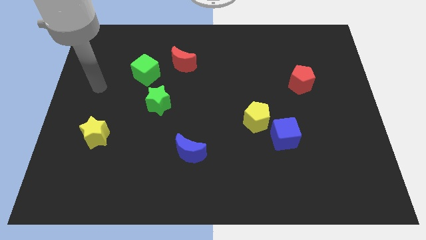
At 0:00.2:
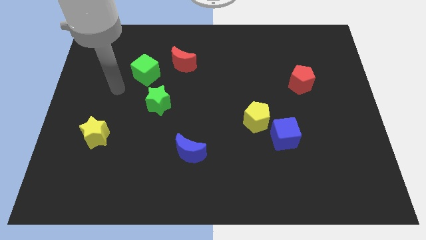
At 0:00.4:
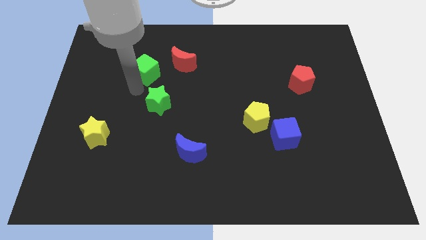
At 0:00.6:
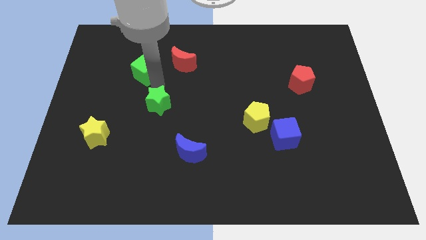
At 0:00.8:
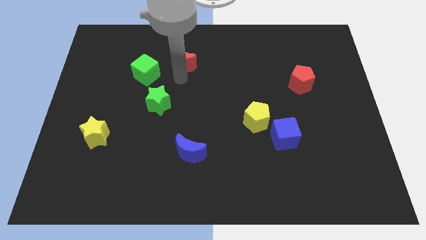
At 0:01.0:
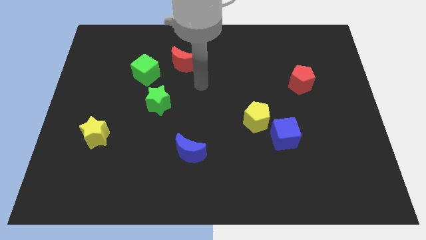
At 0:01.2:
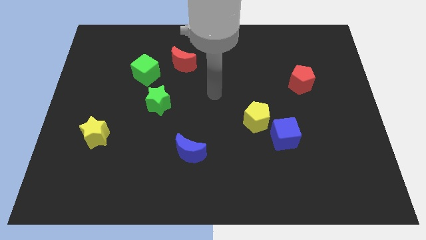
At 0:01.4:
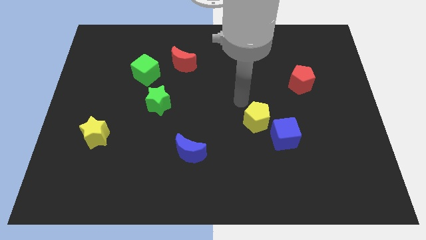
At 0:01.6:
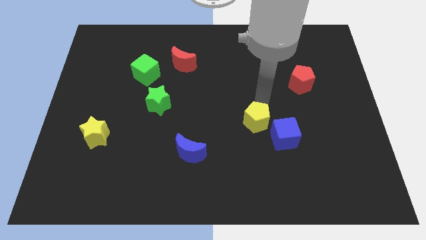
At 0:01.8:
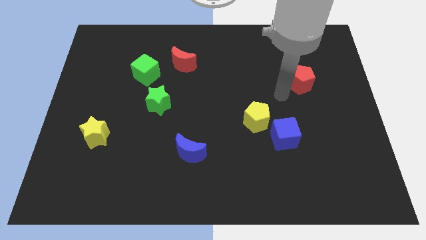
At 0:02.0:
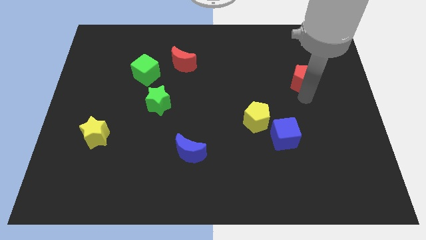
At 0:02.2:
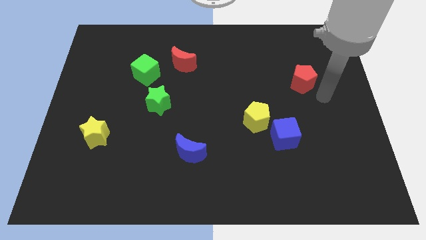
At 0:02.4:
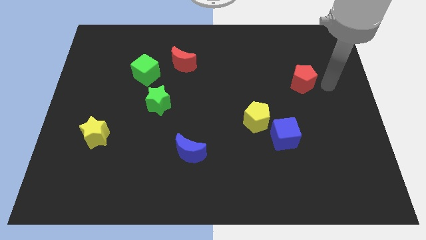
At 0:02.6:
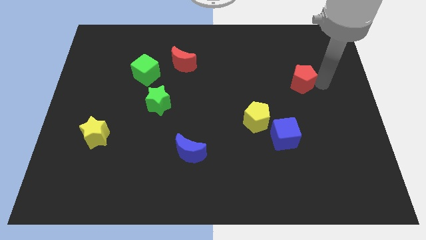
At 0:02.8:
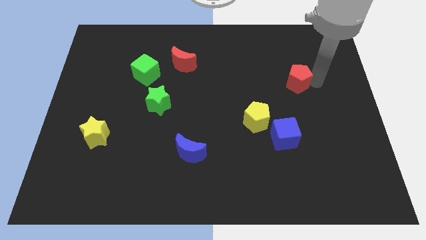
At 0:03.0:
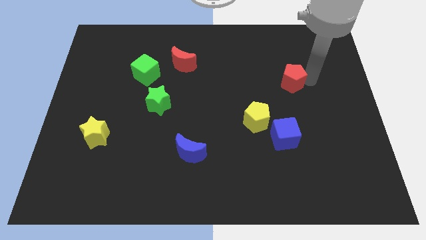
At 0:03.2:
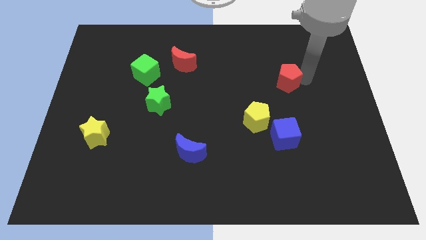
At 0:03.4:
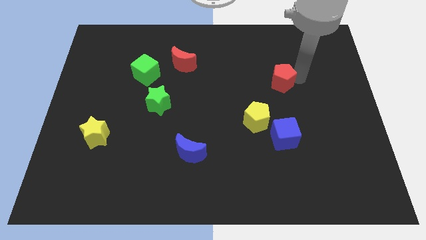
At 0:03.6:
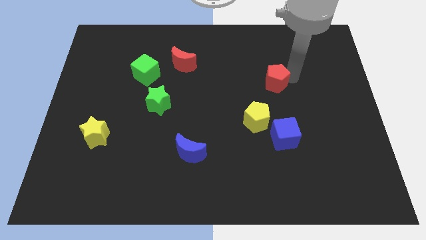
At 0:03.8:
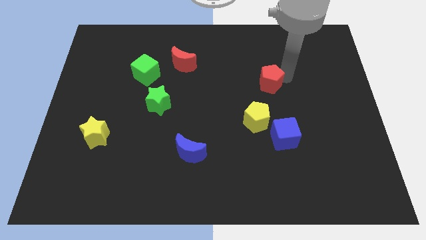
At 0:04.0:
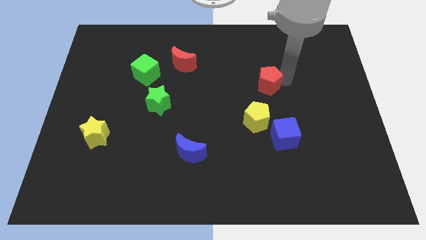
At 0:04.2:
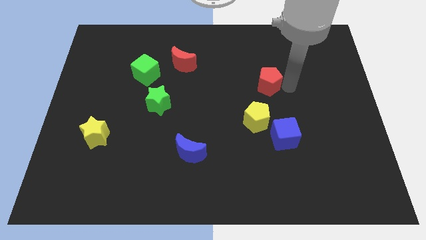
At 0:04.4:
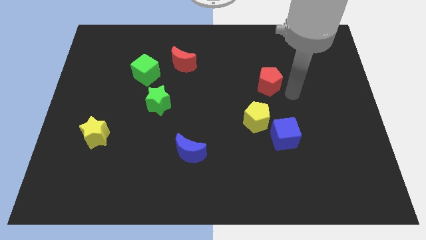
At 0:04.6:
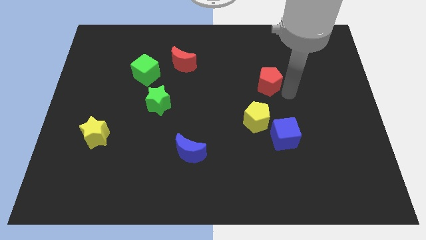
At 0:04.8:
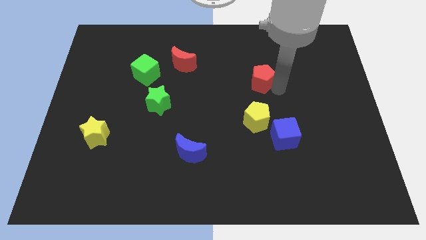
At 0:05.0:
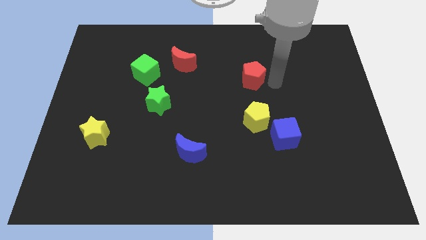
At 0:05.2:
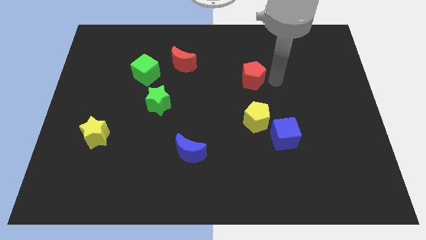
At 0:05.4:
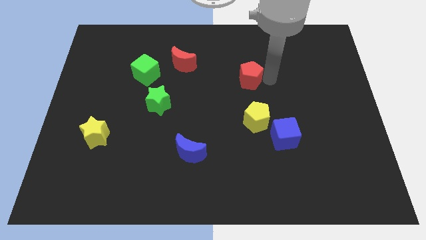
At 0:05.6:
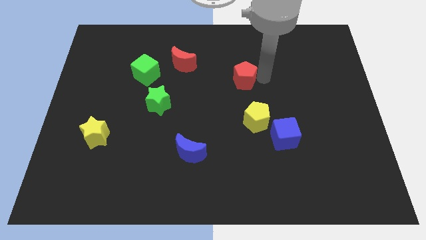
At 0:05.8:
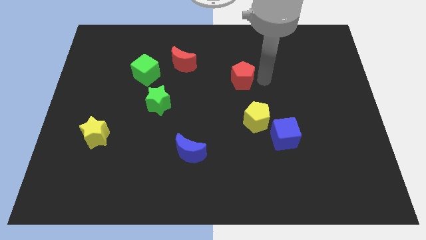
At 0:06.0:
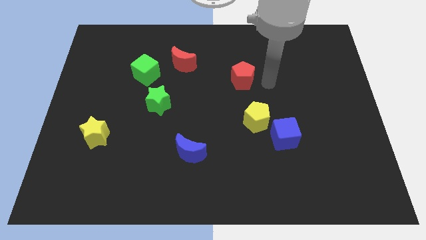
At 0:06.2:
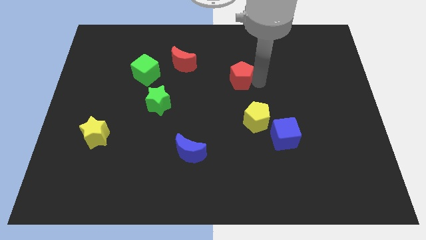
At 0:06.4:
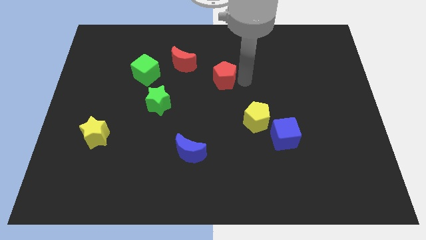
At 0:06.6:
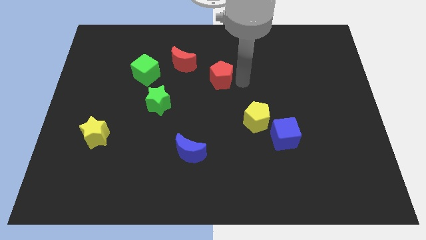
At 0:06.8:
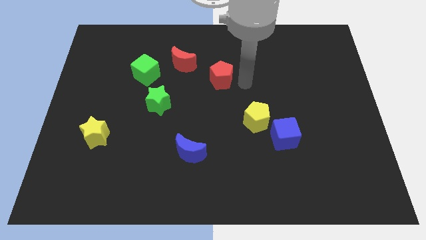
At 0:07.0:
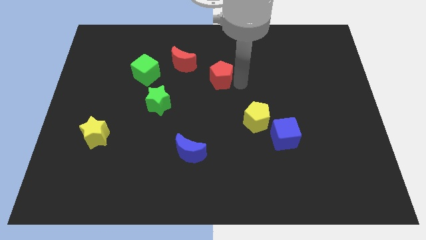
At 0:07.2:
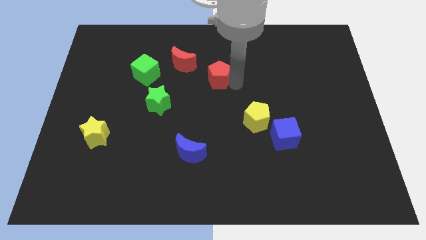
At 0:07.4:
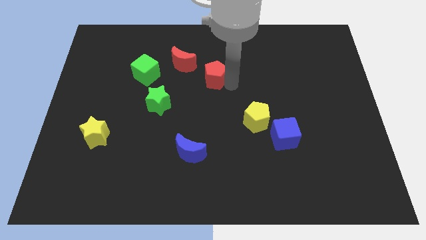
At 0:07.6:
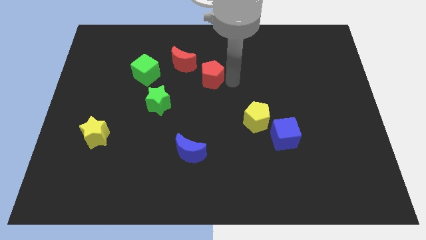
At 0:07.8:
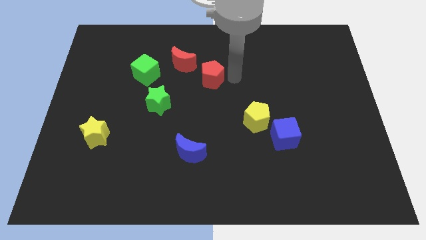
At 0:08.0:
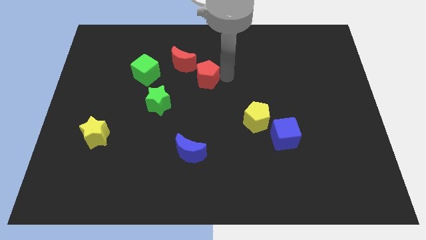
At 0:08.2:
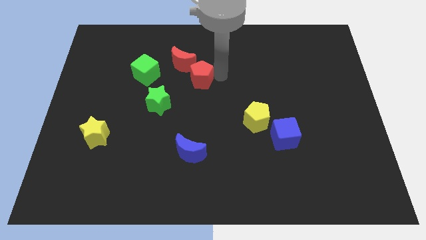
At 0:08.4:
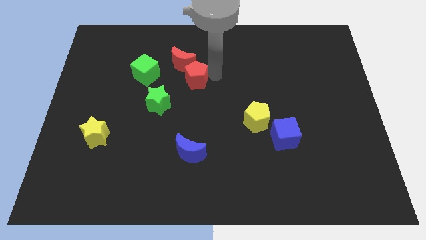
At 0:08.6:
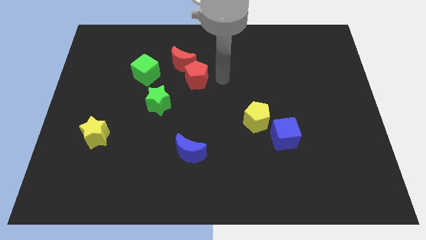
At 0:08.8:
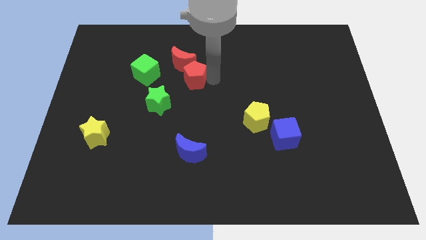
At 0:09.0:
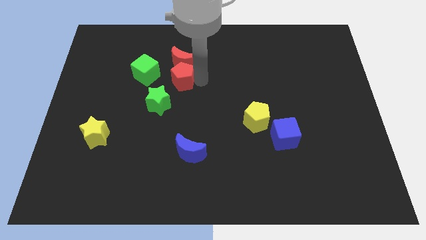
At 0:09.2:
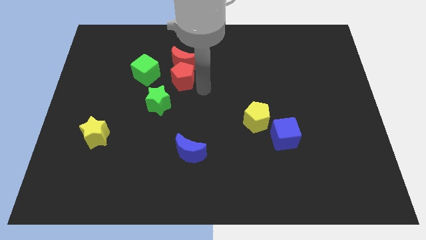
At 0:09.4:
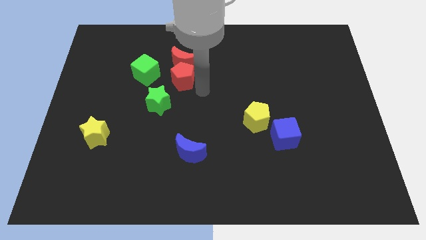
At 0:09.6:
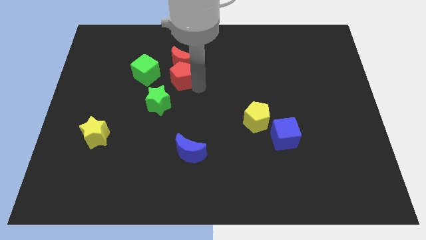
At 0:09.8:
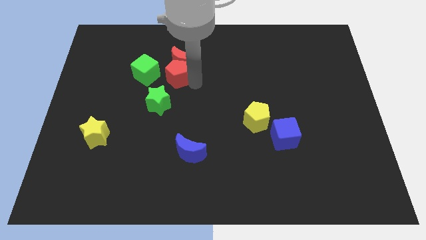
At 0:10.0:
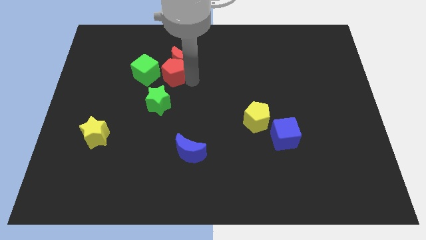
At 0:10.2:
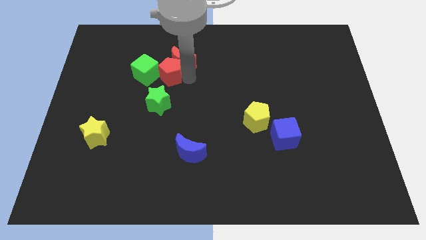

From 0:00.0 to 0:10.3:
slide the red pentagon just left of the red moon

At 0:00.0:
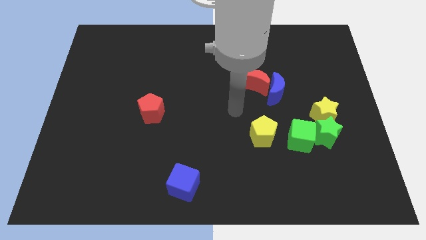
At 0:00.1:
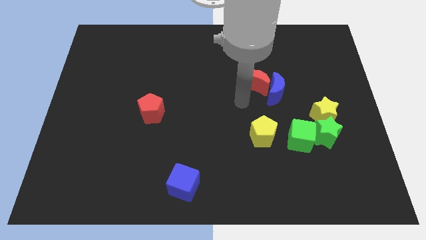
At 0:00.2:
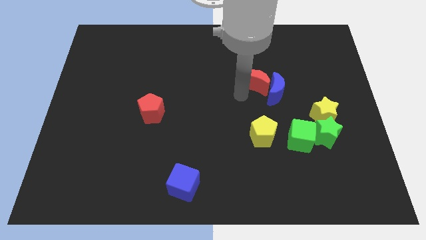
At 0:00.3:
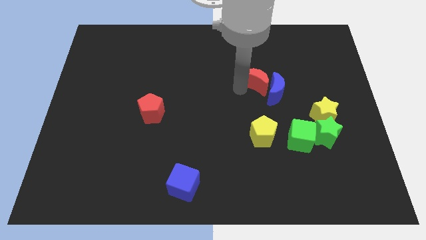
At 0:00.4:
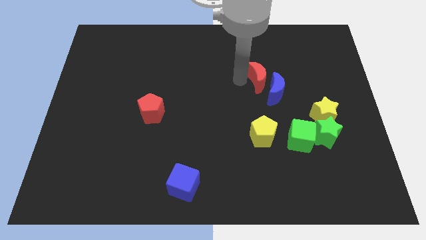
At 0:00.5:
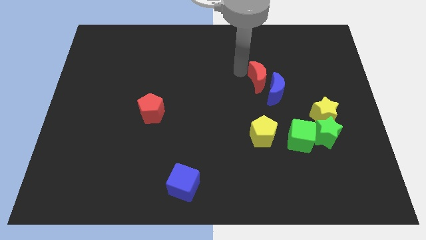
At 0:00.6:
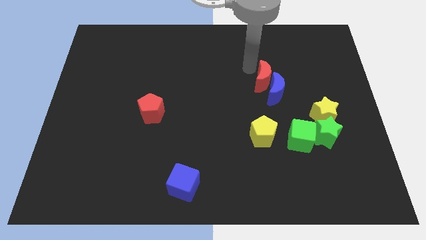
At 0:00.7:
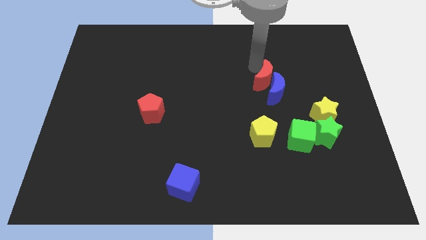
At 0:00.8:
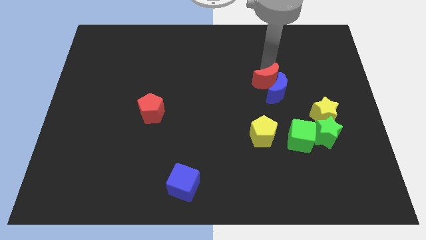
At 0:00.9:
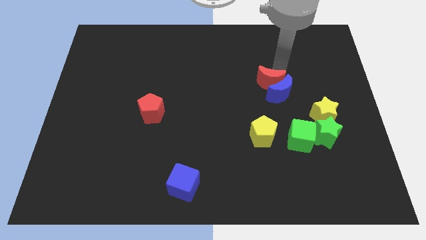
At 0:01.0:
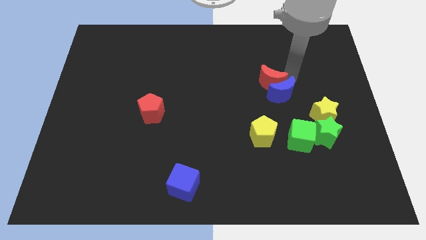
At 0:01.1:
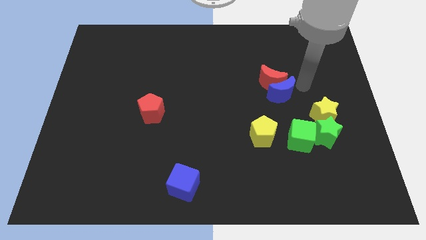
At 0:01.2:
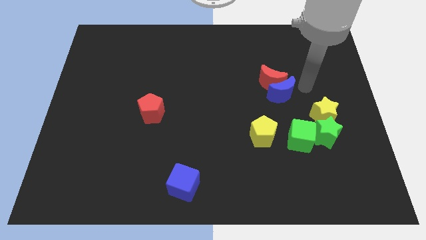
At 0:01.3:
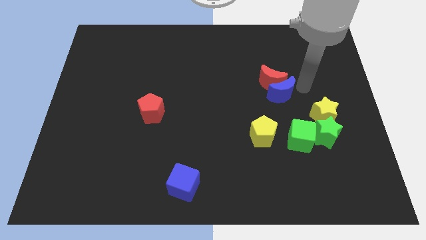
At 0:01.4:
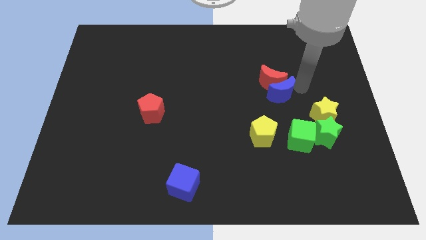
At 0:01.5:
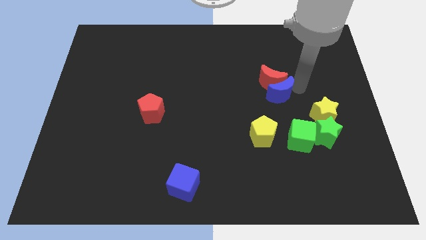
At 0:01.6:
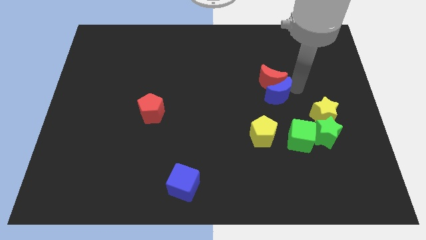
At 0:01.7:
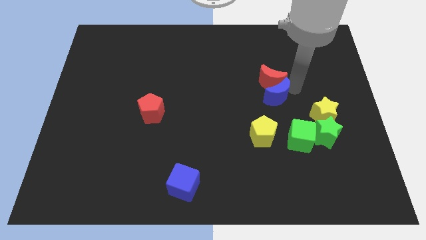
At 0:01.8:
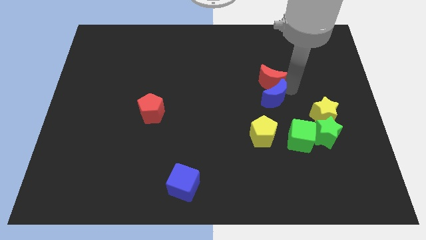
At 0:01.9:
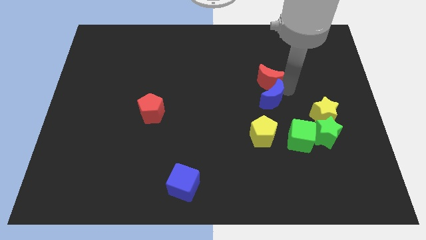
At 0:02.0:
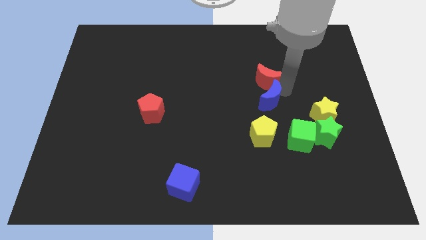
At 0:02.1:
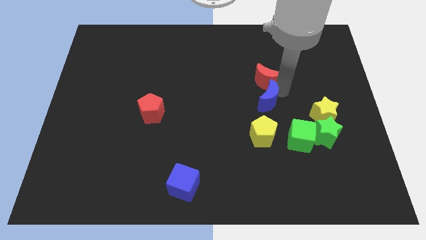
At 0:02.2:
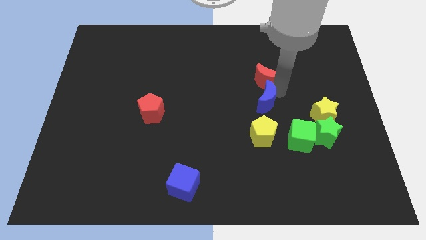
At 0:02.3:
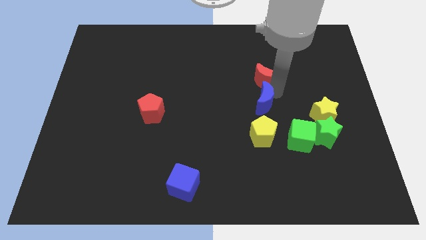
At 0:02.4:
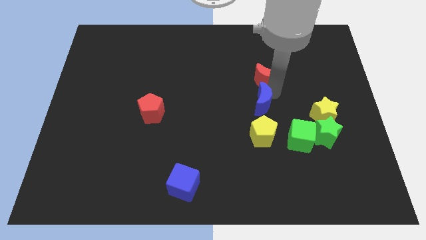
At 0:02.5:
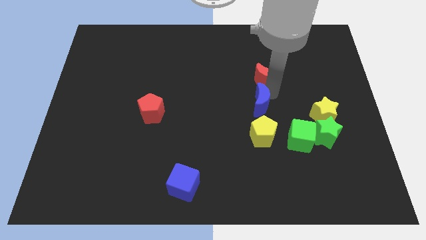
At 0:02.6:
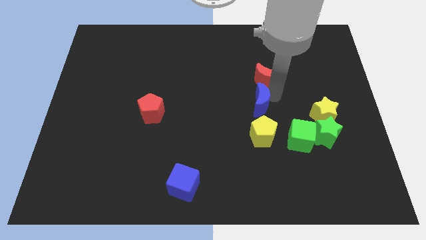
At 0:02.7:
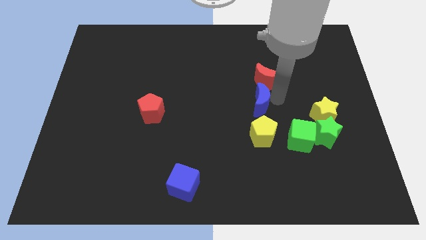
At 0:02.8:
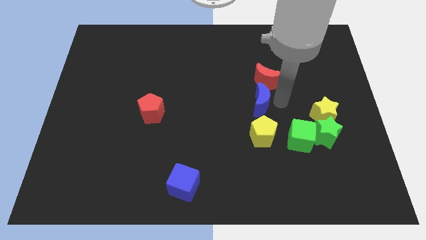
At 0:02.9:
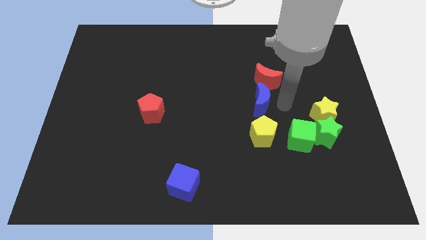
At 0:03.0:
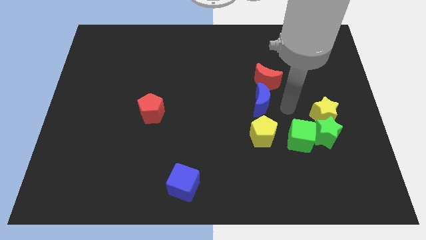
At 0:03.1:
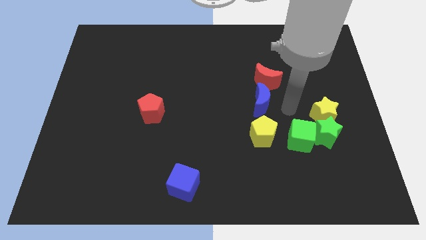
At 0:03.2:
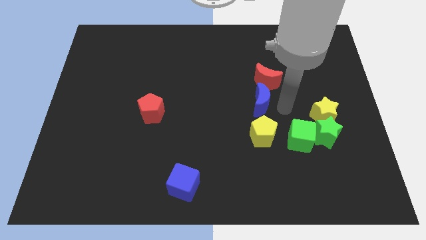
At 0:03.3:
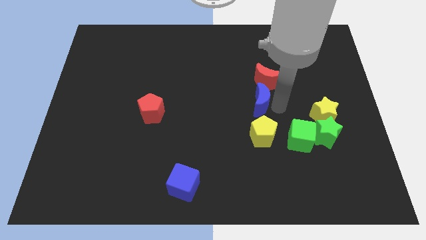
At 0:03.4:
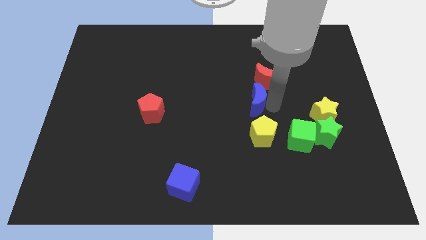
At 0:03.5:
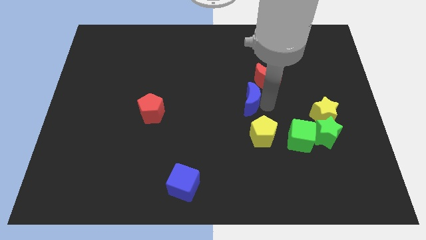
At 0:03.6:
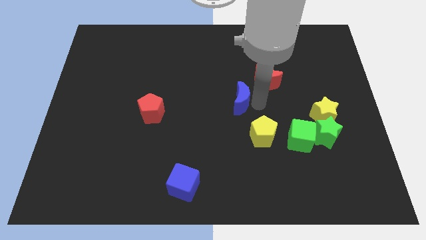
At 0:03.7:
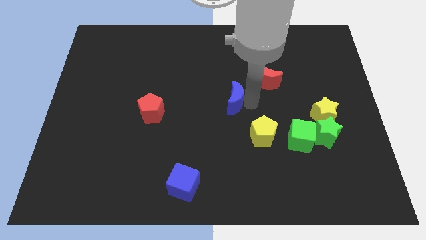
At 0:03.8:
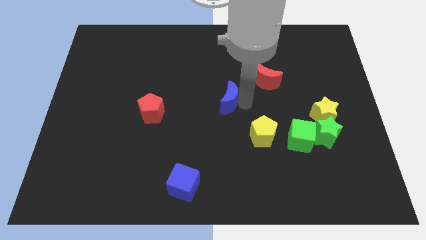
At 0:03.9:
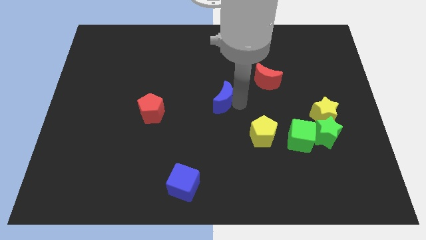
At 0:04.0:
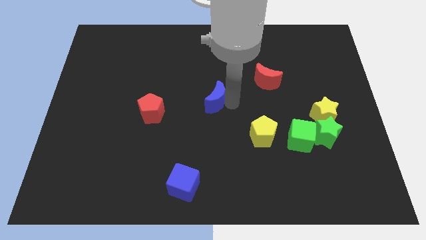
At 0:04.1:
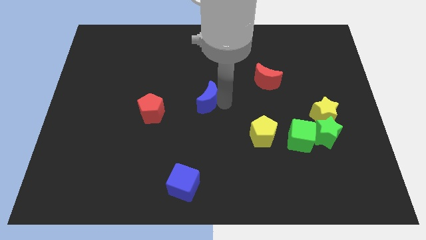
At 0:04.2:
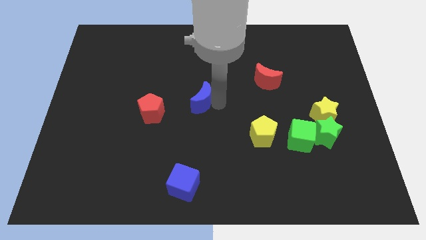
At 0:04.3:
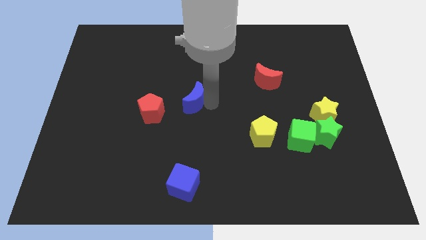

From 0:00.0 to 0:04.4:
move the blue moon to the top right of the red pentagon
